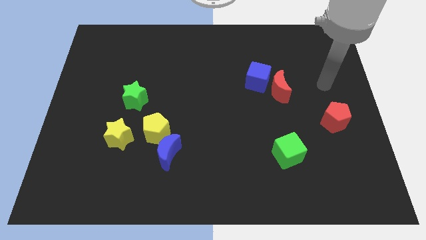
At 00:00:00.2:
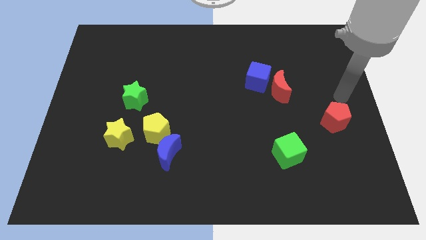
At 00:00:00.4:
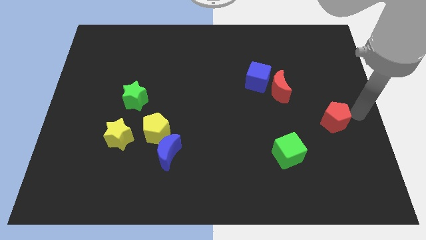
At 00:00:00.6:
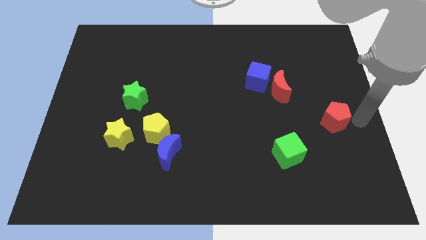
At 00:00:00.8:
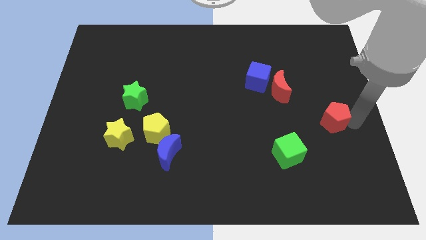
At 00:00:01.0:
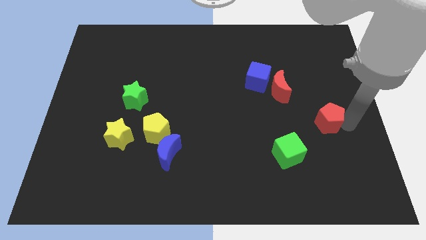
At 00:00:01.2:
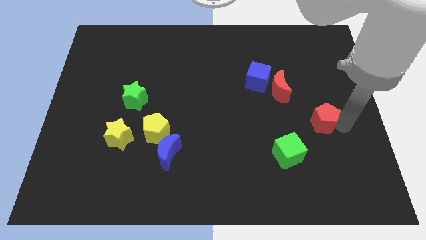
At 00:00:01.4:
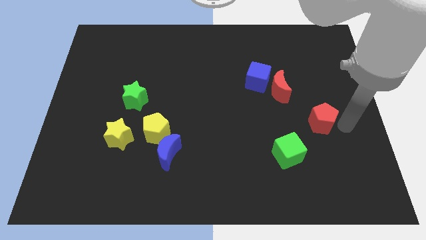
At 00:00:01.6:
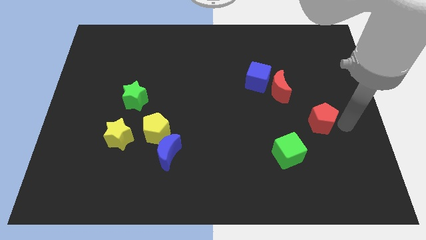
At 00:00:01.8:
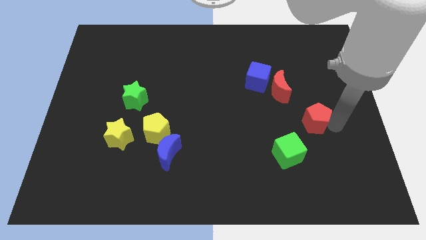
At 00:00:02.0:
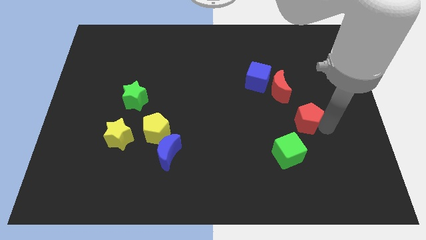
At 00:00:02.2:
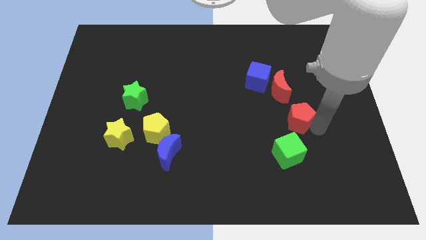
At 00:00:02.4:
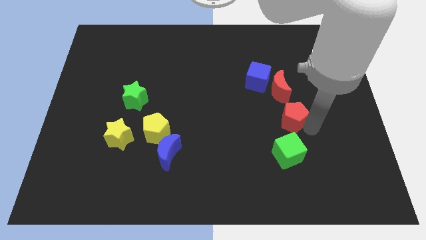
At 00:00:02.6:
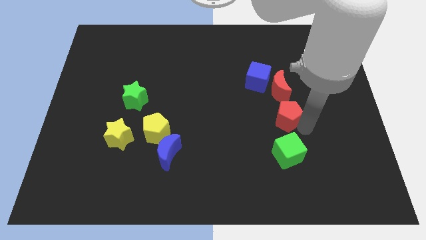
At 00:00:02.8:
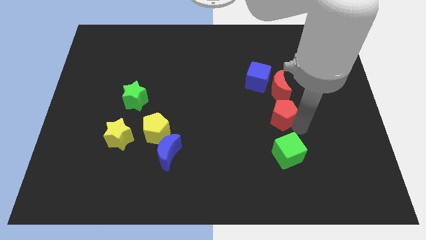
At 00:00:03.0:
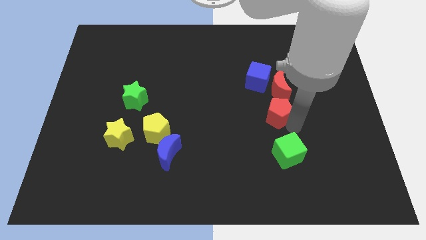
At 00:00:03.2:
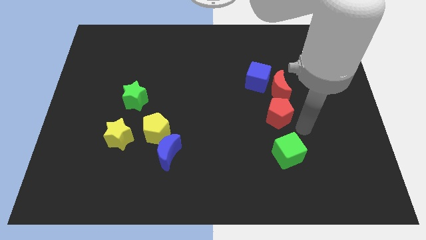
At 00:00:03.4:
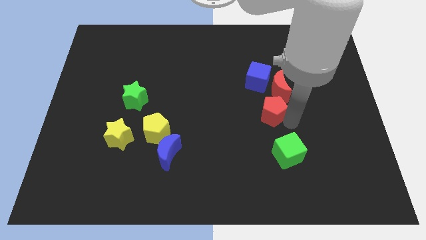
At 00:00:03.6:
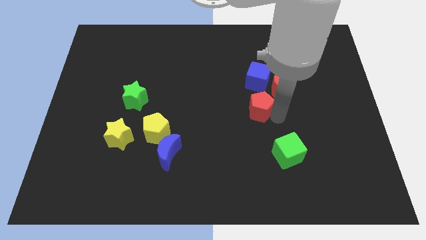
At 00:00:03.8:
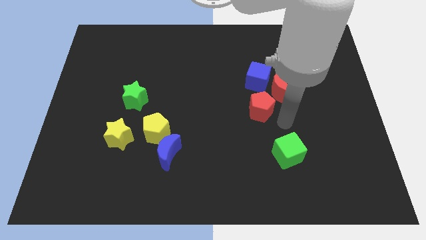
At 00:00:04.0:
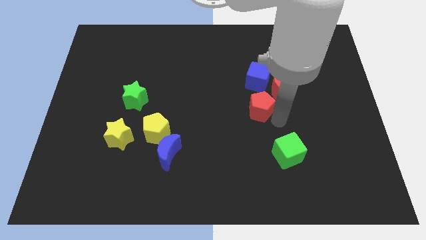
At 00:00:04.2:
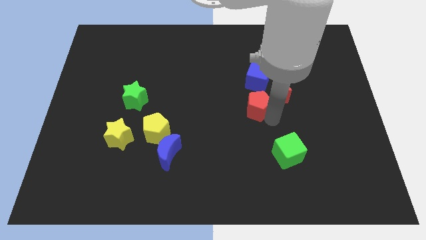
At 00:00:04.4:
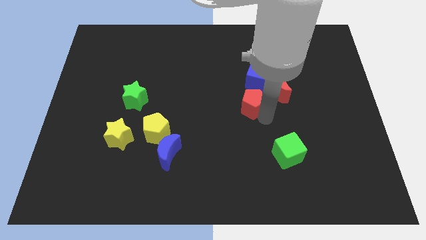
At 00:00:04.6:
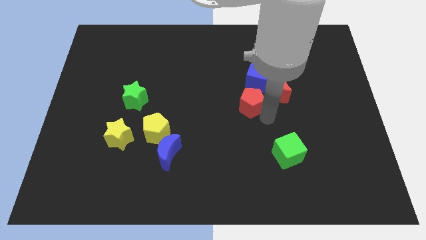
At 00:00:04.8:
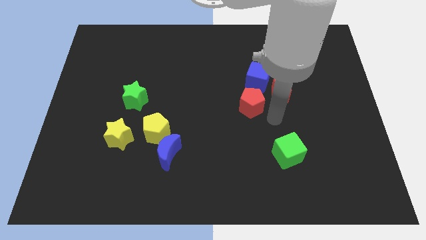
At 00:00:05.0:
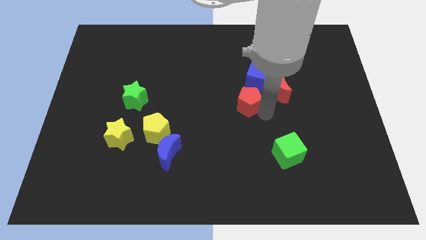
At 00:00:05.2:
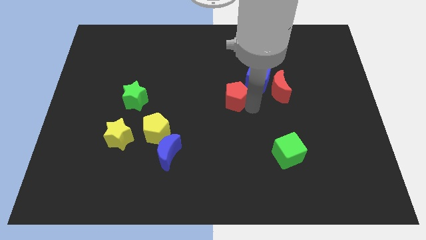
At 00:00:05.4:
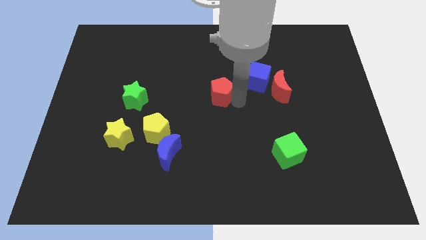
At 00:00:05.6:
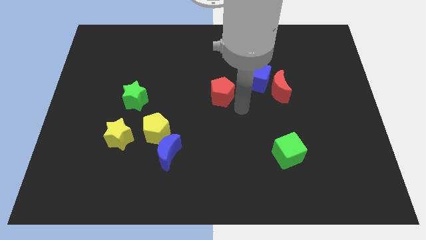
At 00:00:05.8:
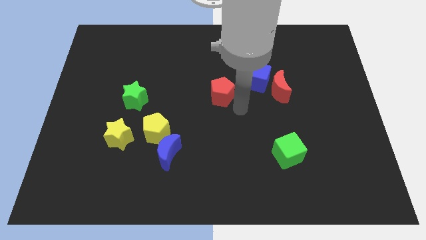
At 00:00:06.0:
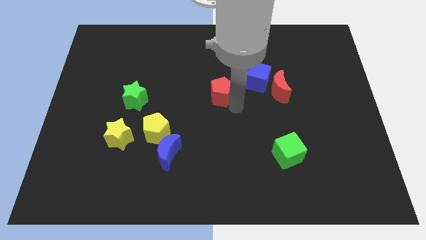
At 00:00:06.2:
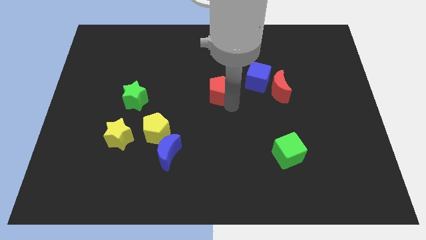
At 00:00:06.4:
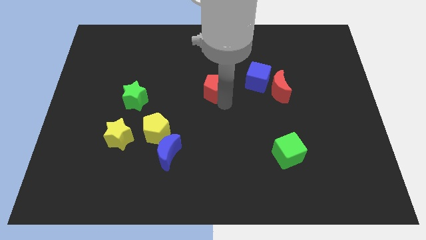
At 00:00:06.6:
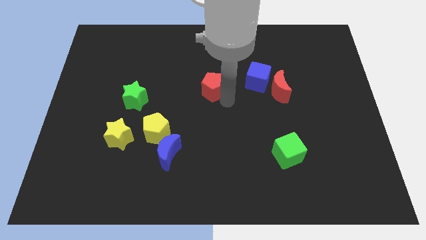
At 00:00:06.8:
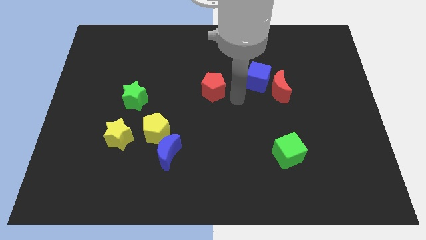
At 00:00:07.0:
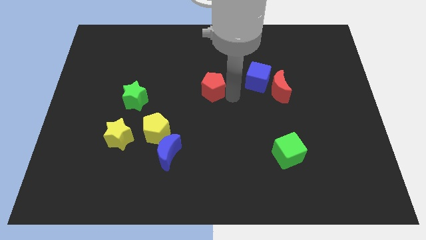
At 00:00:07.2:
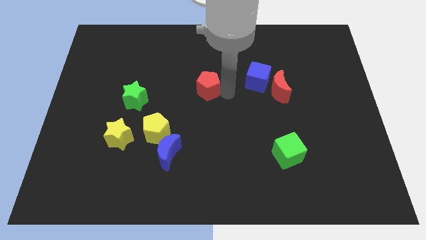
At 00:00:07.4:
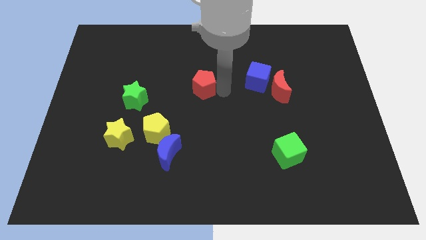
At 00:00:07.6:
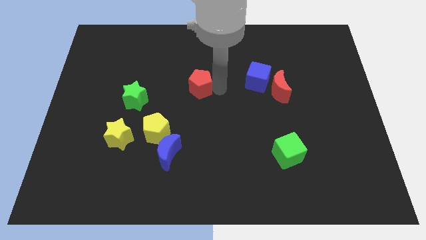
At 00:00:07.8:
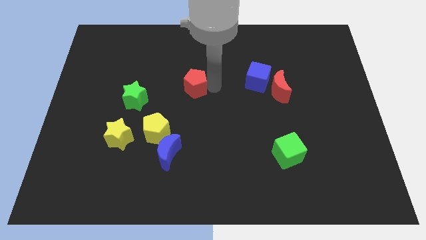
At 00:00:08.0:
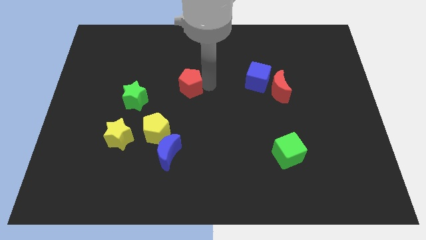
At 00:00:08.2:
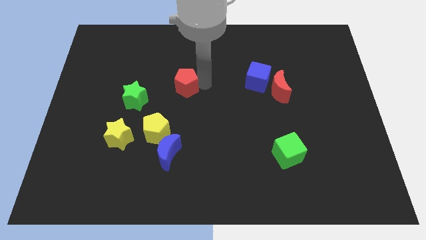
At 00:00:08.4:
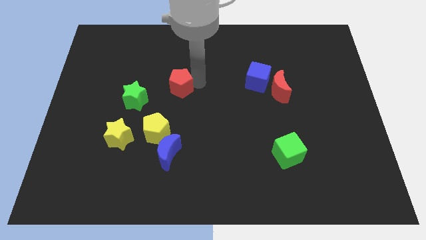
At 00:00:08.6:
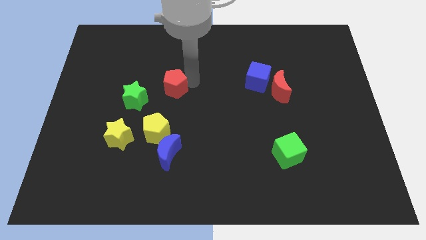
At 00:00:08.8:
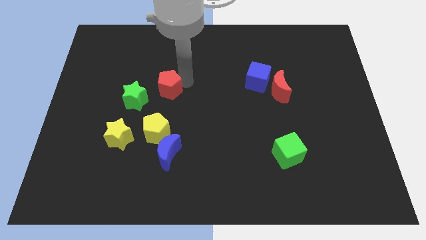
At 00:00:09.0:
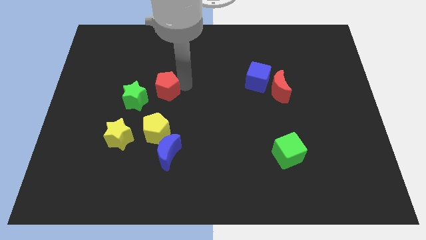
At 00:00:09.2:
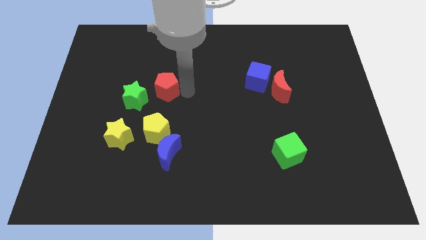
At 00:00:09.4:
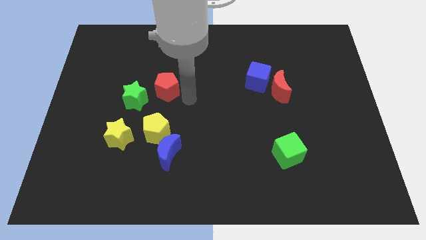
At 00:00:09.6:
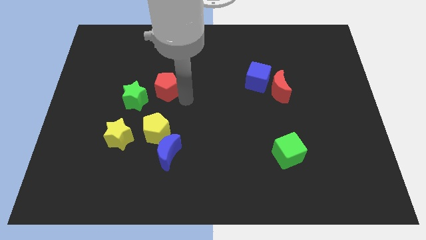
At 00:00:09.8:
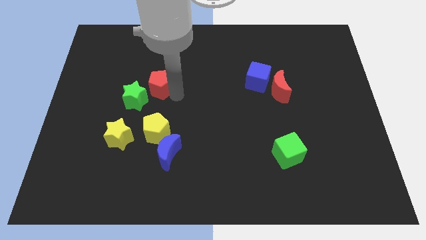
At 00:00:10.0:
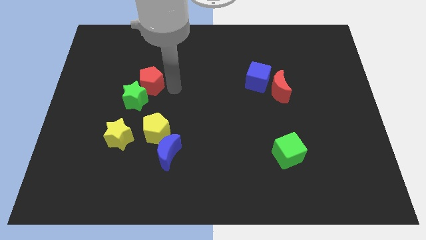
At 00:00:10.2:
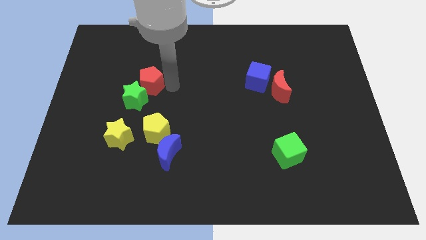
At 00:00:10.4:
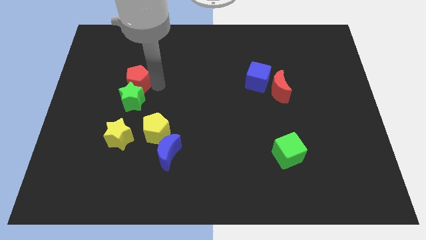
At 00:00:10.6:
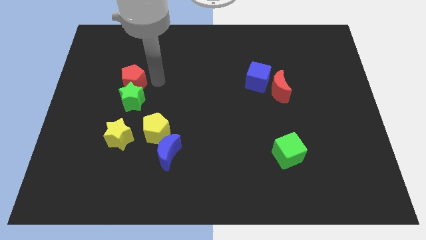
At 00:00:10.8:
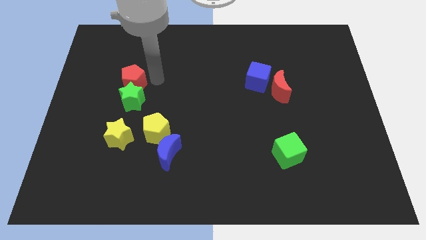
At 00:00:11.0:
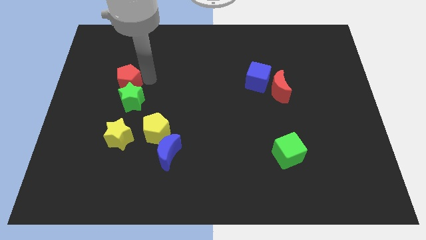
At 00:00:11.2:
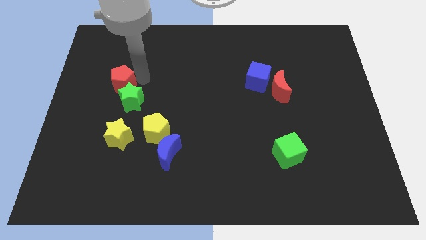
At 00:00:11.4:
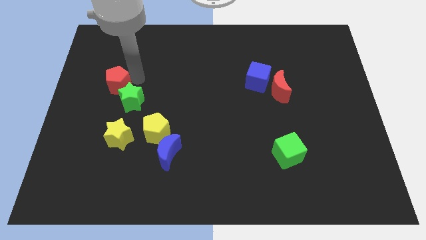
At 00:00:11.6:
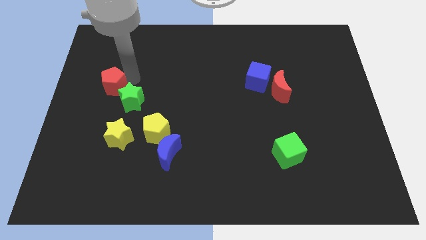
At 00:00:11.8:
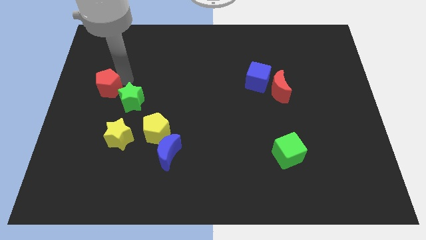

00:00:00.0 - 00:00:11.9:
put the red pentagon to the left side
